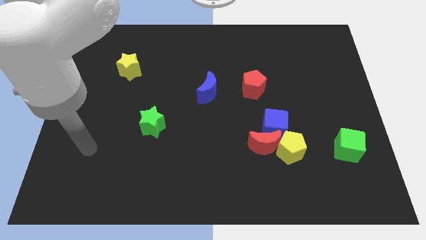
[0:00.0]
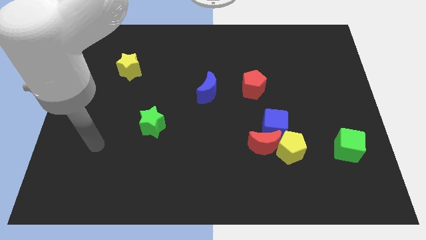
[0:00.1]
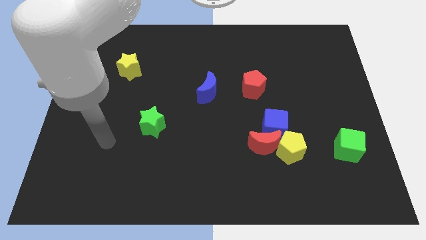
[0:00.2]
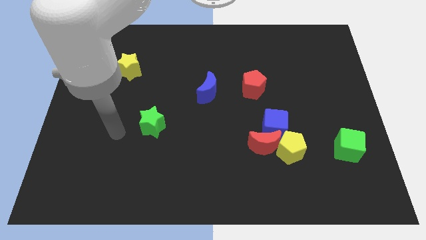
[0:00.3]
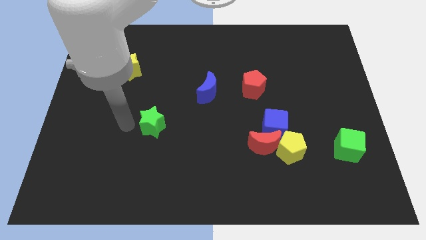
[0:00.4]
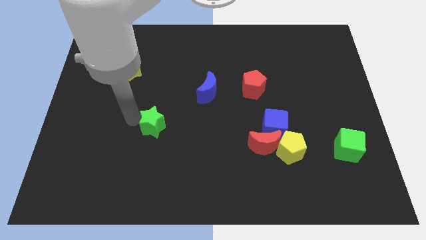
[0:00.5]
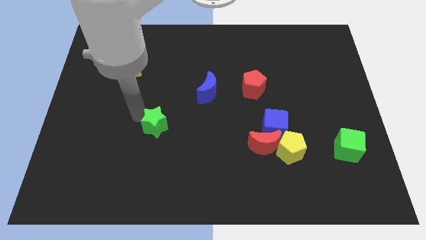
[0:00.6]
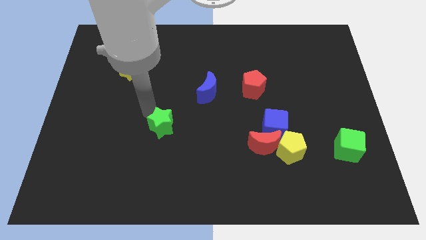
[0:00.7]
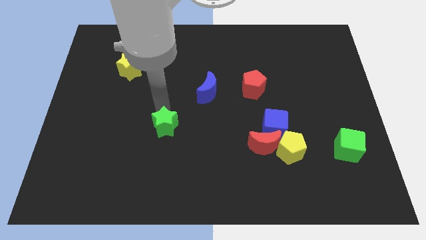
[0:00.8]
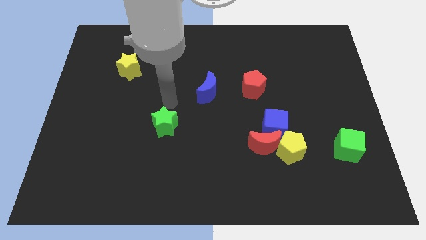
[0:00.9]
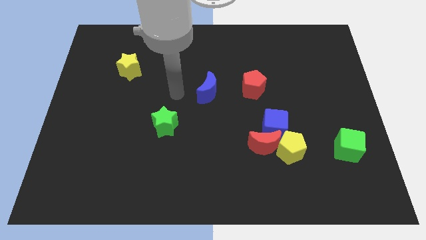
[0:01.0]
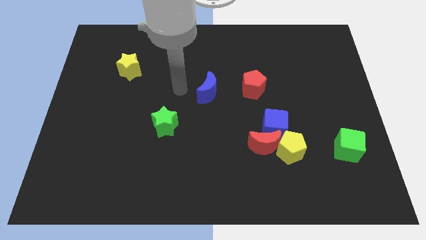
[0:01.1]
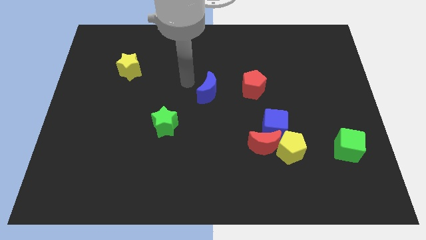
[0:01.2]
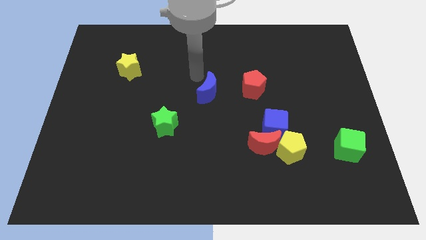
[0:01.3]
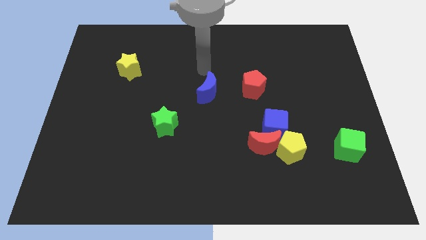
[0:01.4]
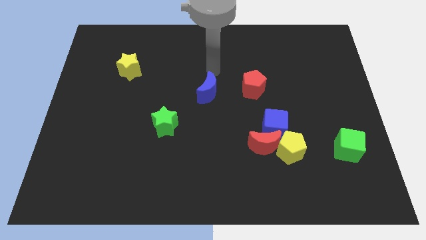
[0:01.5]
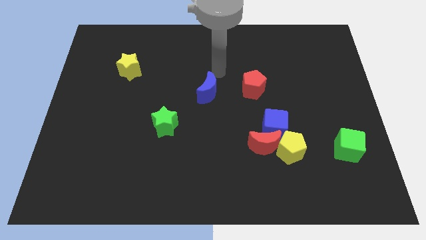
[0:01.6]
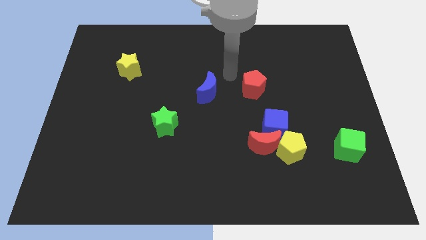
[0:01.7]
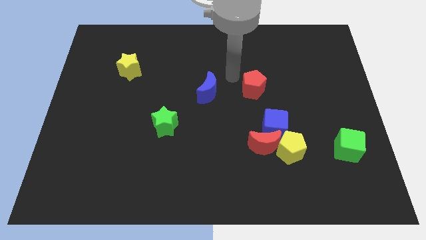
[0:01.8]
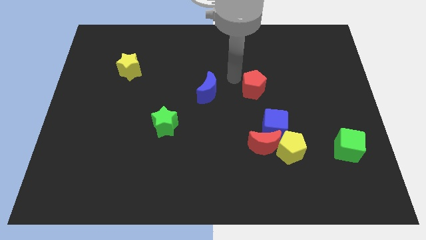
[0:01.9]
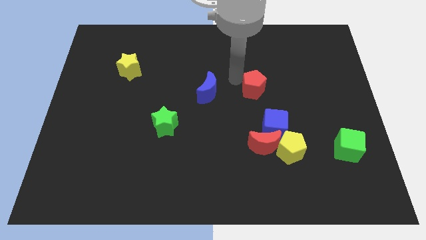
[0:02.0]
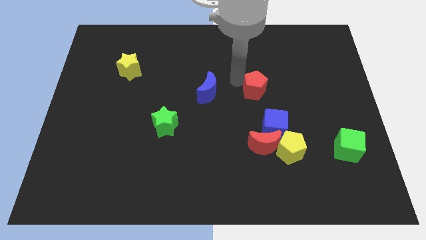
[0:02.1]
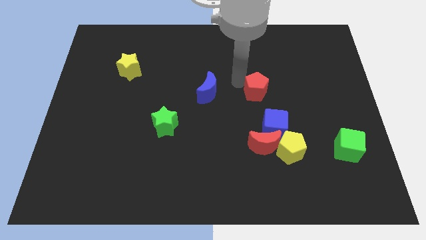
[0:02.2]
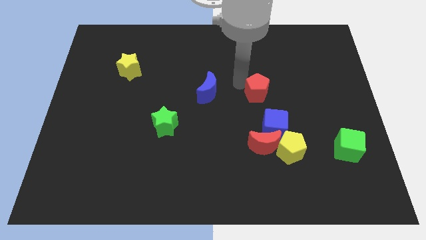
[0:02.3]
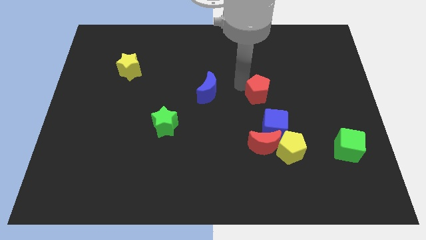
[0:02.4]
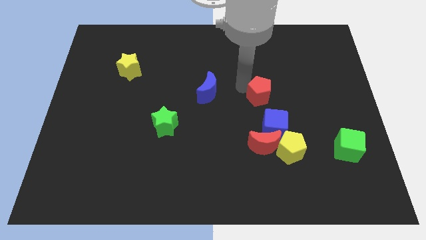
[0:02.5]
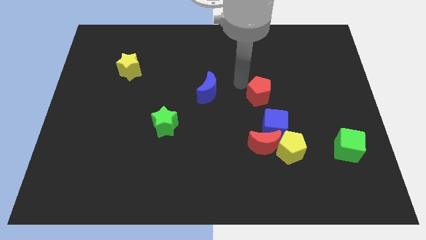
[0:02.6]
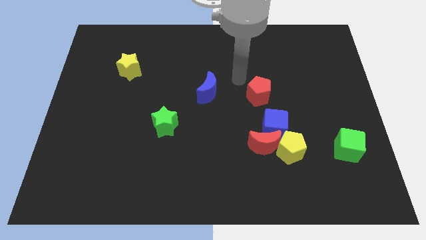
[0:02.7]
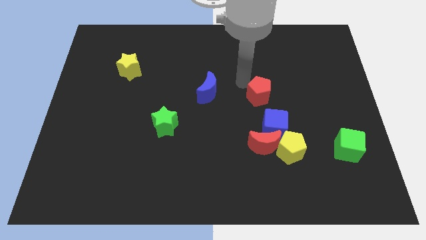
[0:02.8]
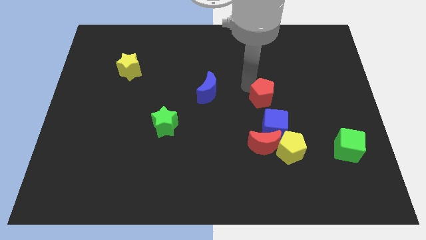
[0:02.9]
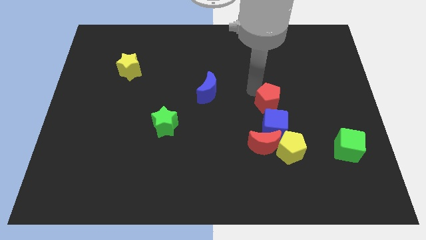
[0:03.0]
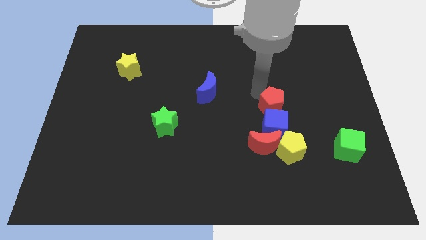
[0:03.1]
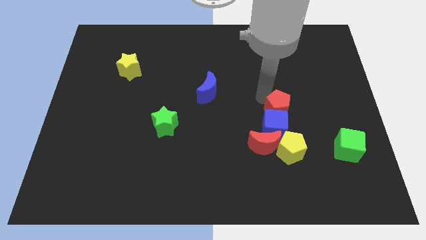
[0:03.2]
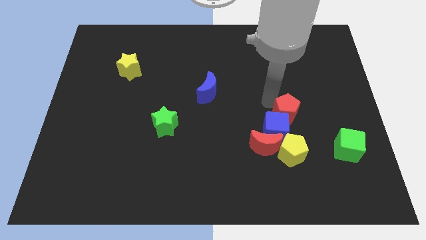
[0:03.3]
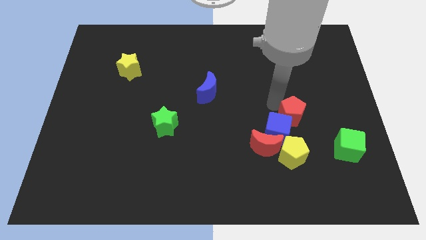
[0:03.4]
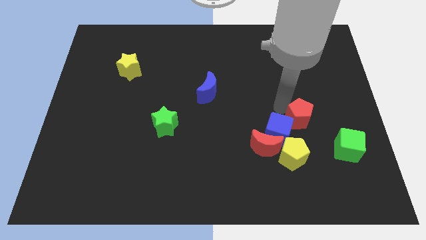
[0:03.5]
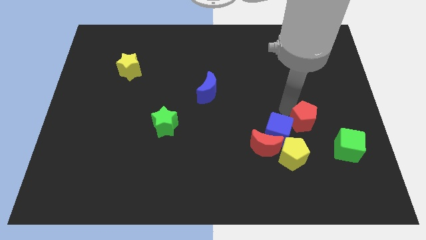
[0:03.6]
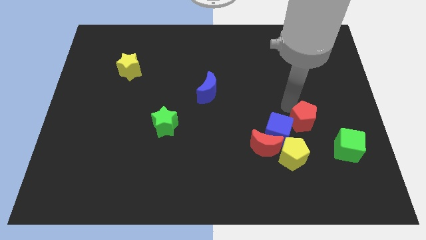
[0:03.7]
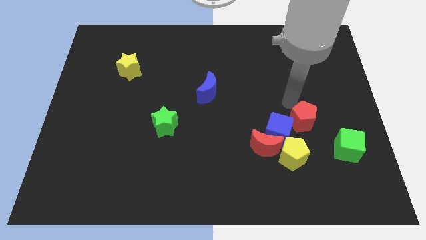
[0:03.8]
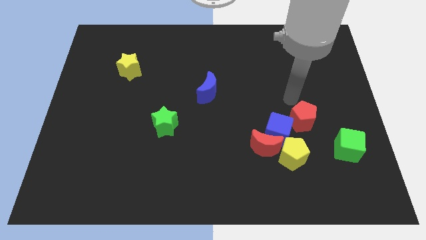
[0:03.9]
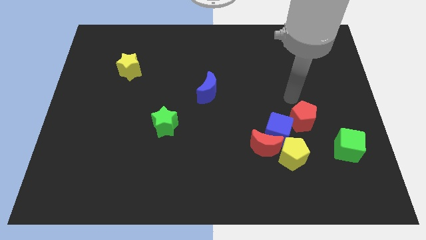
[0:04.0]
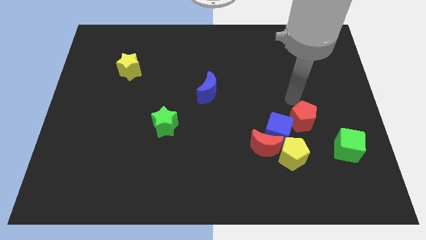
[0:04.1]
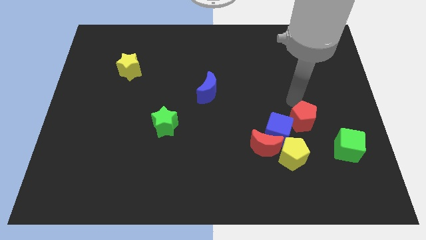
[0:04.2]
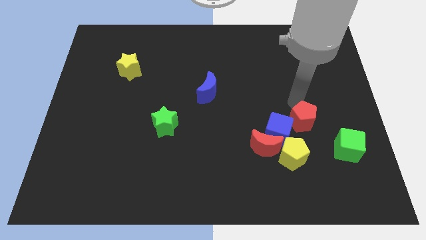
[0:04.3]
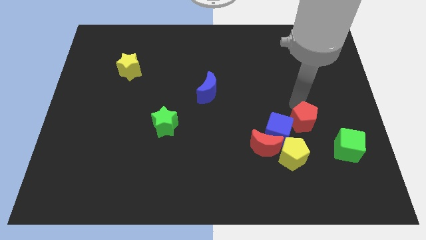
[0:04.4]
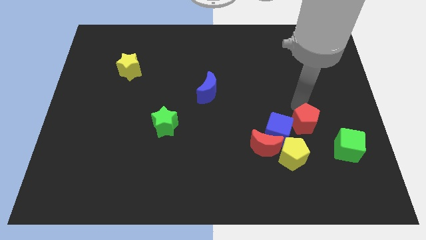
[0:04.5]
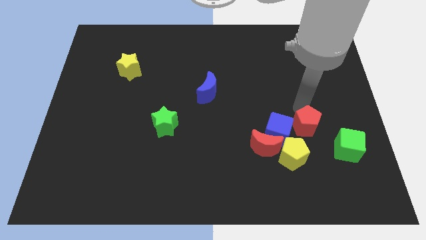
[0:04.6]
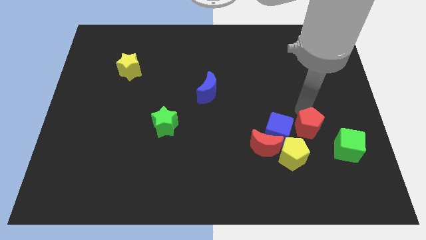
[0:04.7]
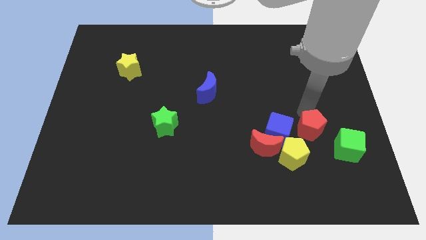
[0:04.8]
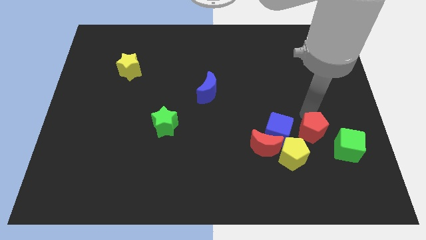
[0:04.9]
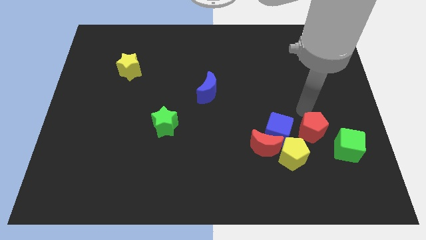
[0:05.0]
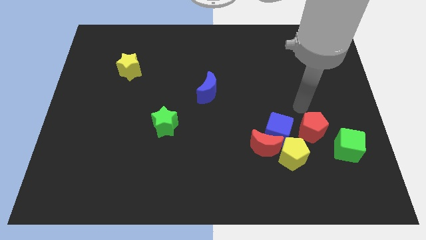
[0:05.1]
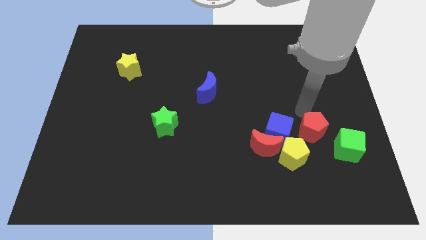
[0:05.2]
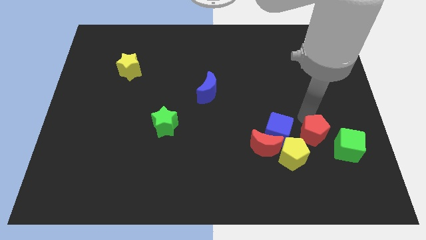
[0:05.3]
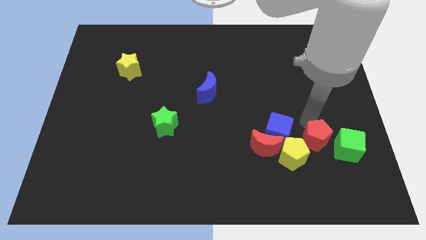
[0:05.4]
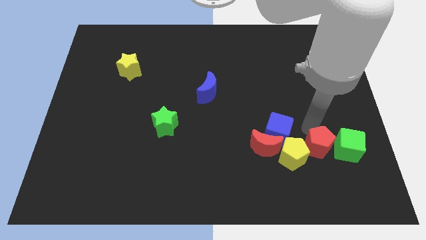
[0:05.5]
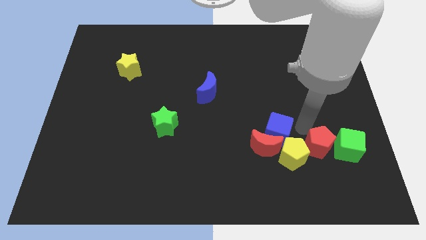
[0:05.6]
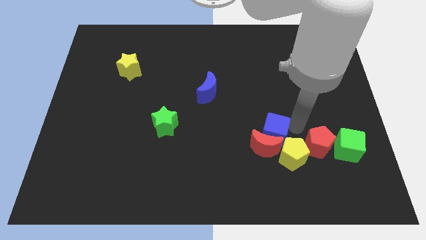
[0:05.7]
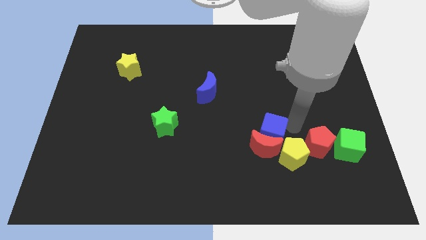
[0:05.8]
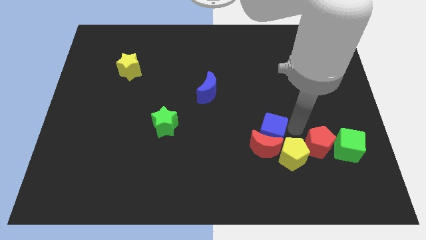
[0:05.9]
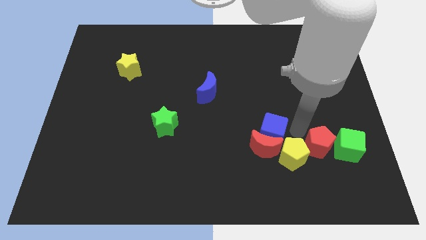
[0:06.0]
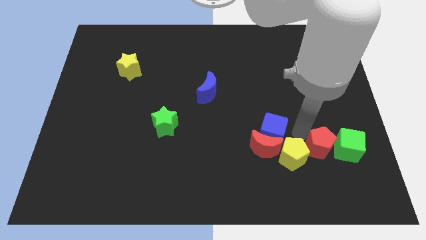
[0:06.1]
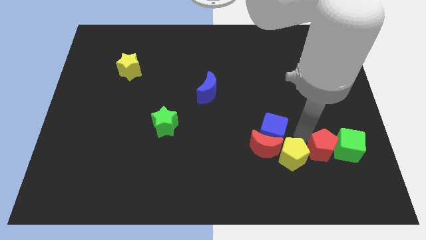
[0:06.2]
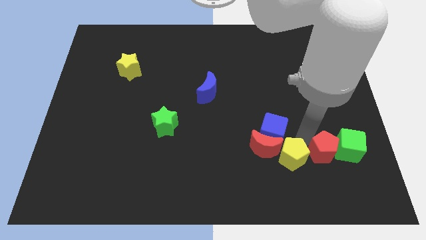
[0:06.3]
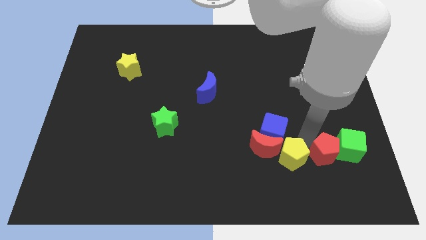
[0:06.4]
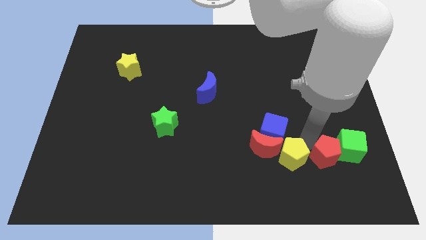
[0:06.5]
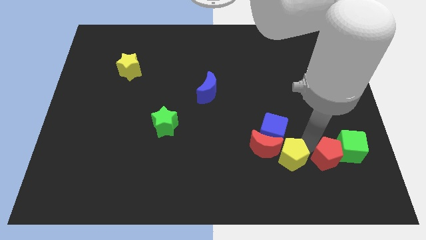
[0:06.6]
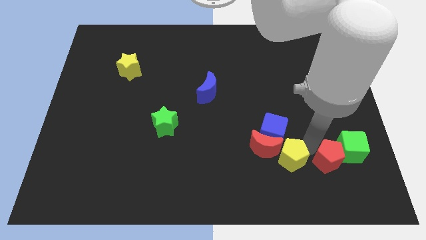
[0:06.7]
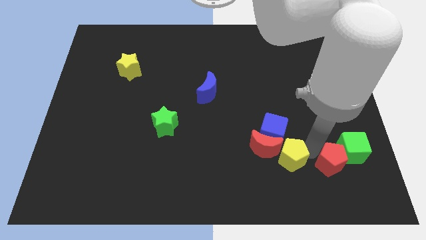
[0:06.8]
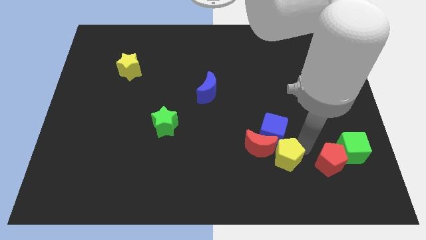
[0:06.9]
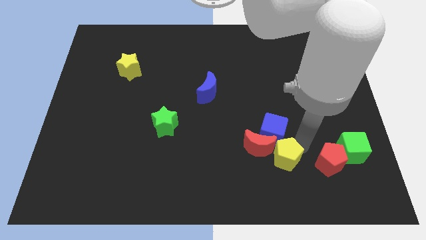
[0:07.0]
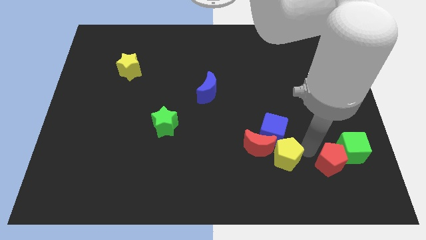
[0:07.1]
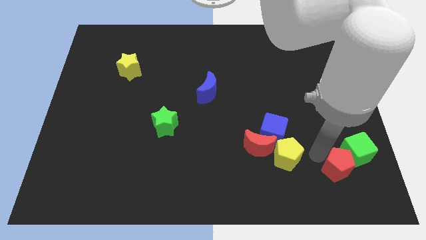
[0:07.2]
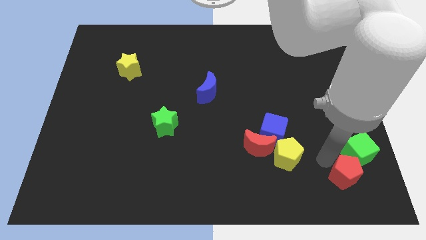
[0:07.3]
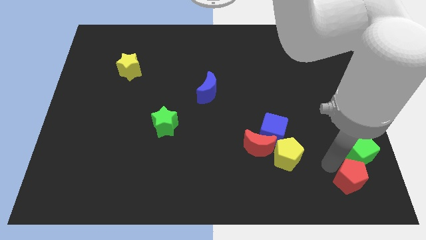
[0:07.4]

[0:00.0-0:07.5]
move the red pentagon to the bottom right

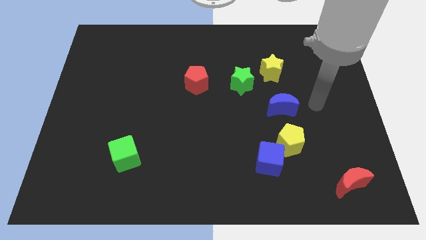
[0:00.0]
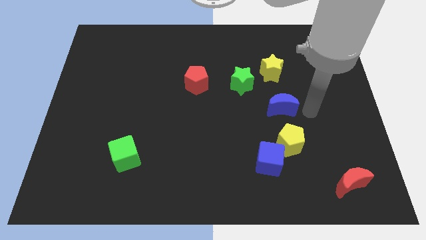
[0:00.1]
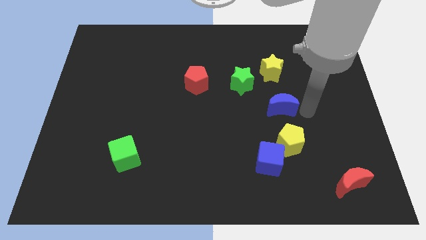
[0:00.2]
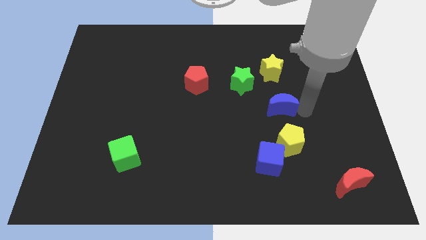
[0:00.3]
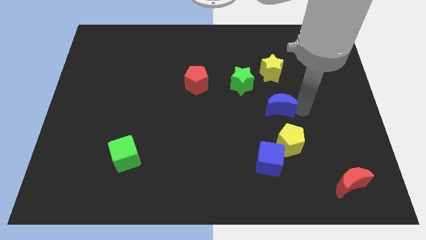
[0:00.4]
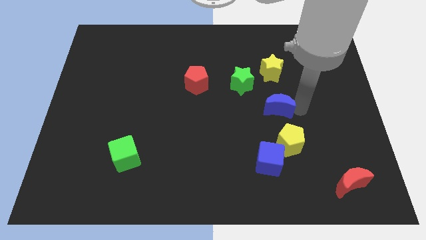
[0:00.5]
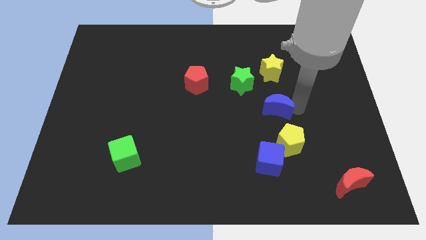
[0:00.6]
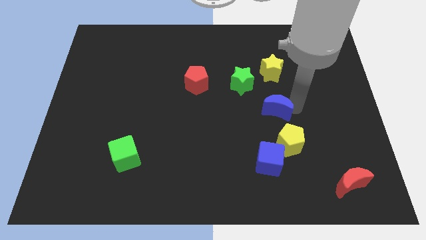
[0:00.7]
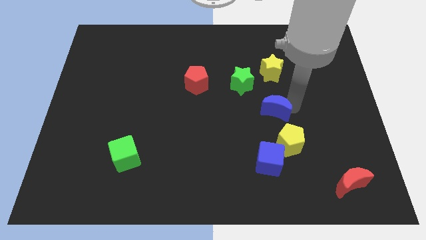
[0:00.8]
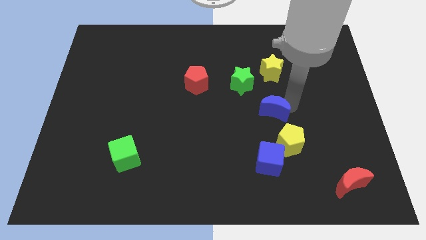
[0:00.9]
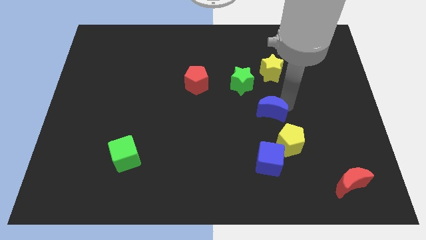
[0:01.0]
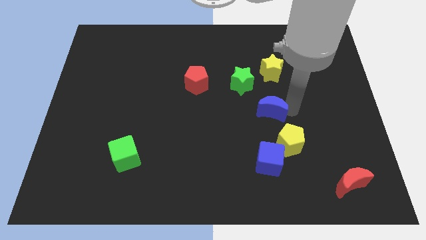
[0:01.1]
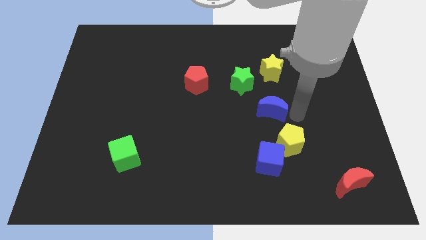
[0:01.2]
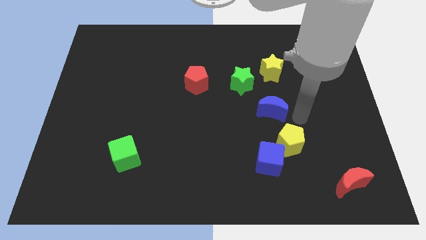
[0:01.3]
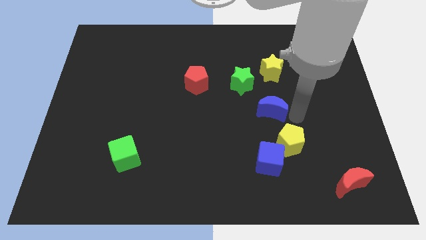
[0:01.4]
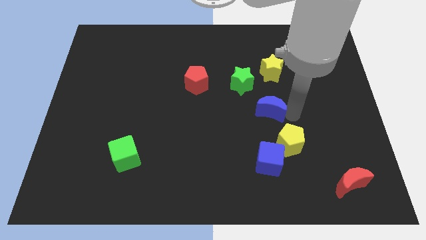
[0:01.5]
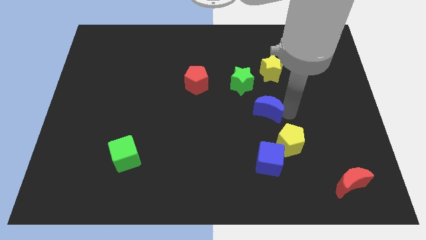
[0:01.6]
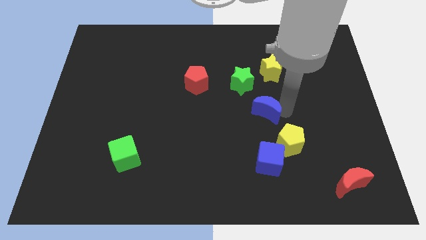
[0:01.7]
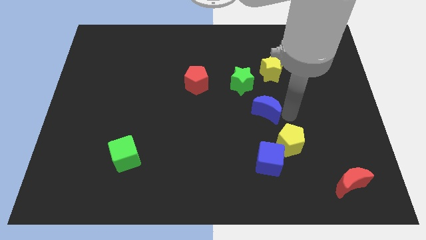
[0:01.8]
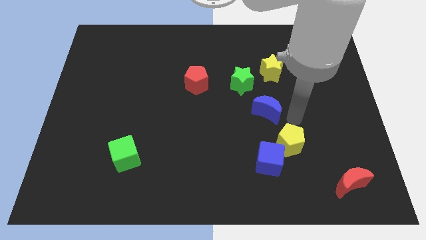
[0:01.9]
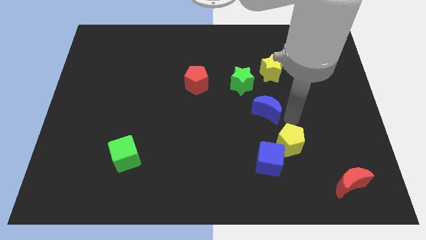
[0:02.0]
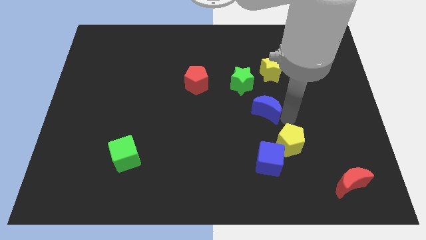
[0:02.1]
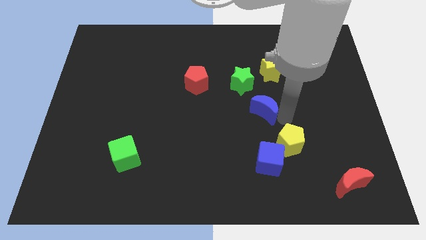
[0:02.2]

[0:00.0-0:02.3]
put the blue moon to the middle
